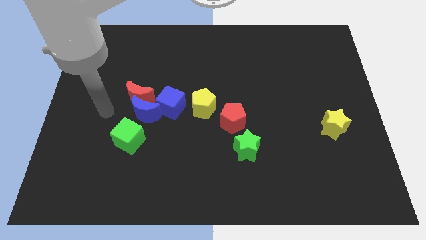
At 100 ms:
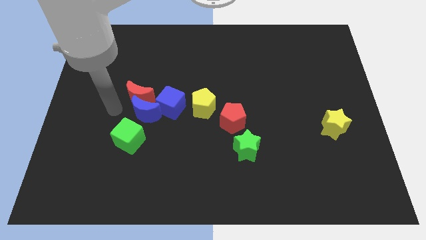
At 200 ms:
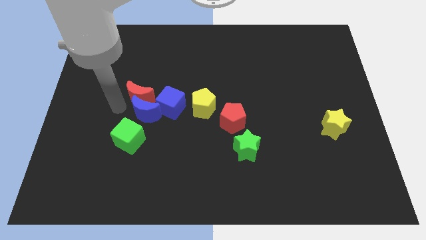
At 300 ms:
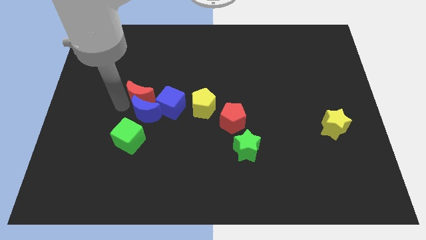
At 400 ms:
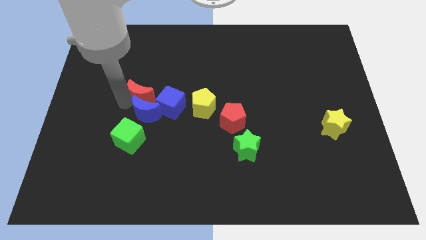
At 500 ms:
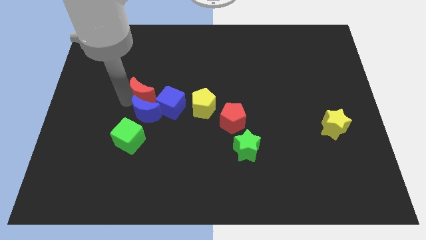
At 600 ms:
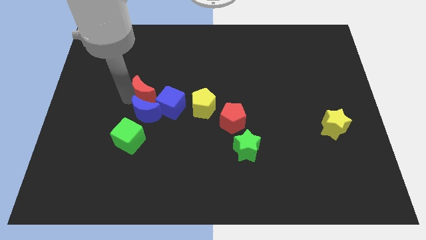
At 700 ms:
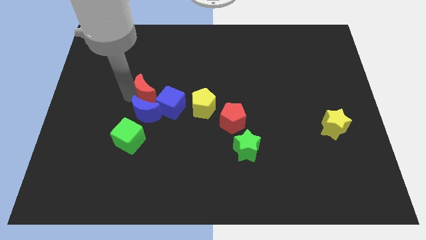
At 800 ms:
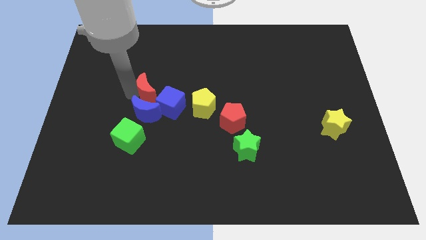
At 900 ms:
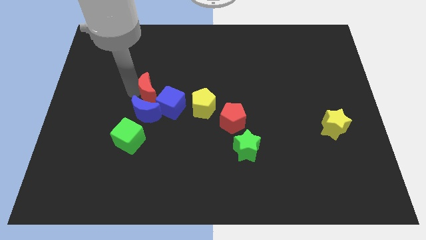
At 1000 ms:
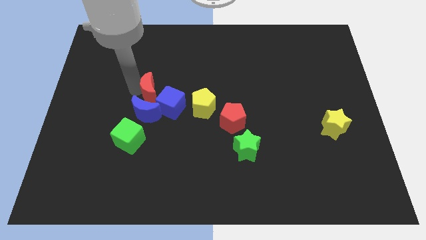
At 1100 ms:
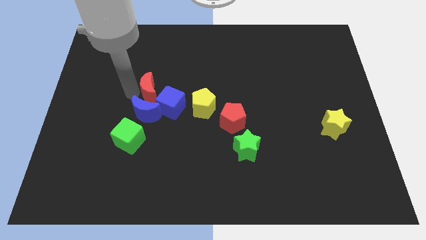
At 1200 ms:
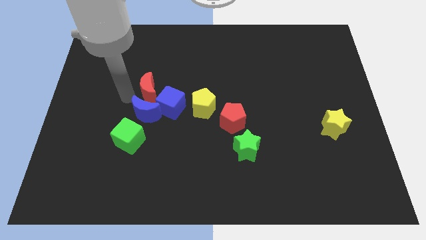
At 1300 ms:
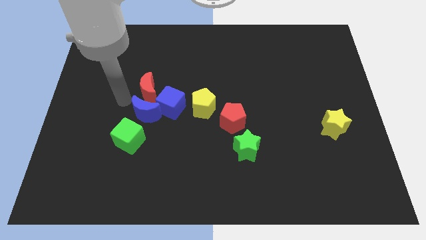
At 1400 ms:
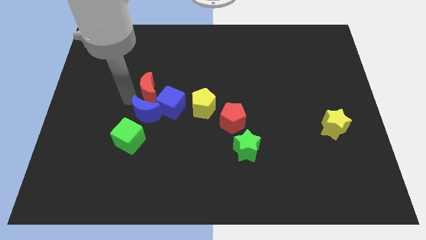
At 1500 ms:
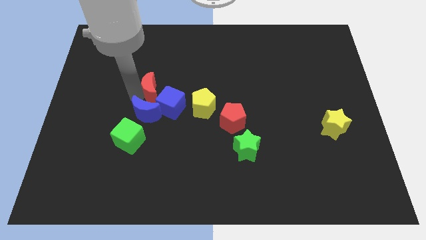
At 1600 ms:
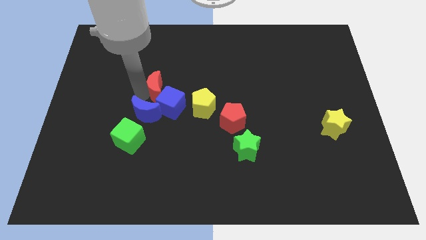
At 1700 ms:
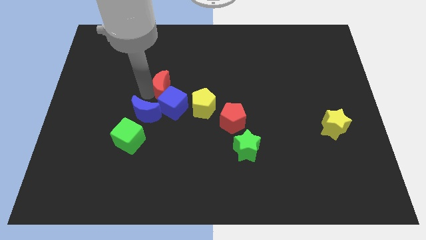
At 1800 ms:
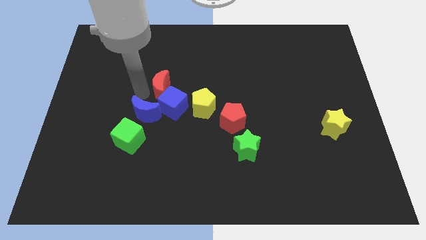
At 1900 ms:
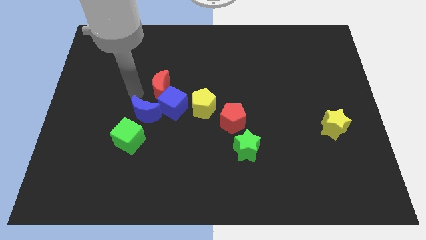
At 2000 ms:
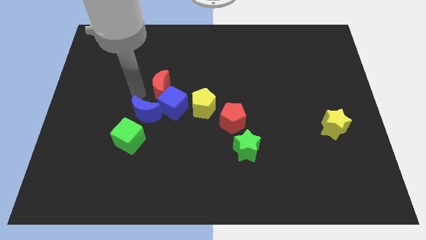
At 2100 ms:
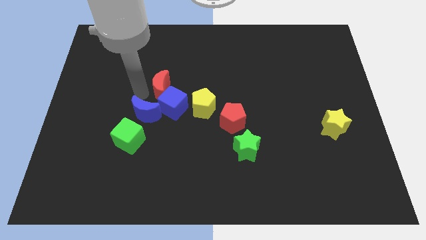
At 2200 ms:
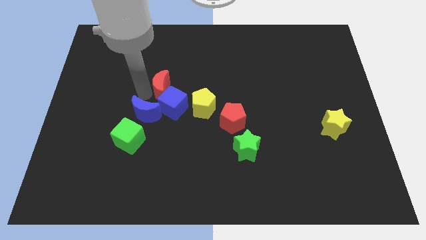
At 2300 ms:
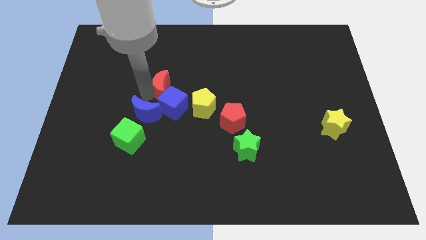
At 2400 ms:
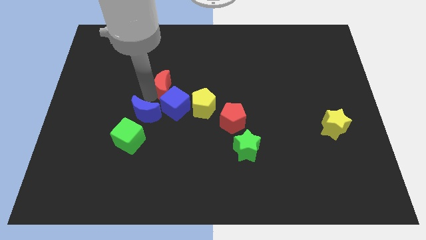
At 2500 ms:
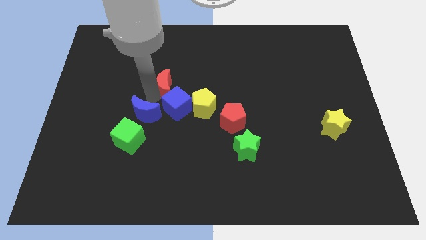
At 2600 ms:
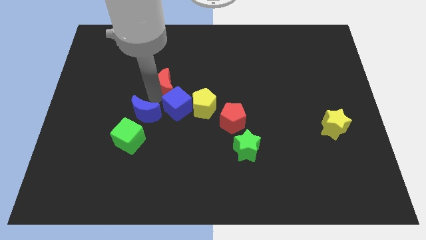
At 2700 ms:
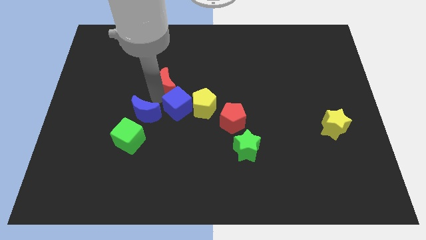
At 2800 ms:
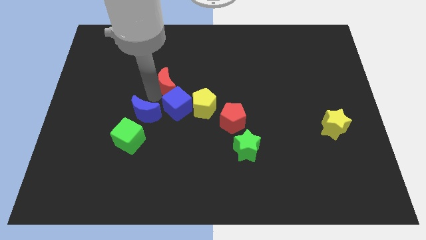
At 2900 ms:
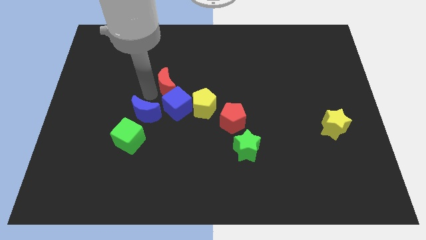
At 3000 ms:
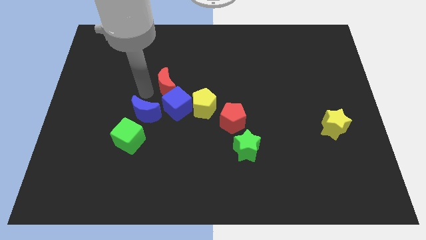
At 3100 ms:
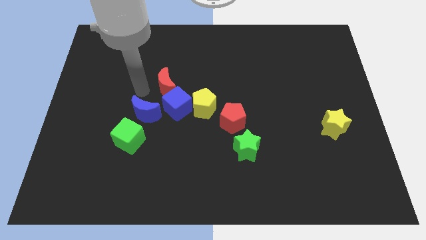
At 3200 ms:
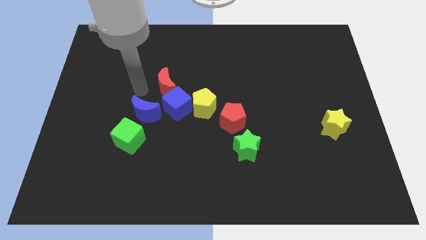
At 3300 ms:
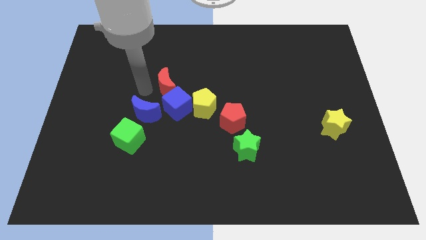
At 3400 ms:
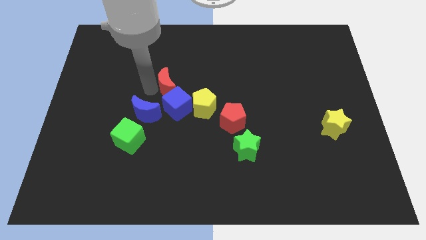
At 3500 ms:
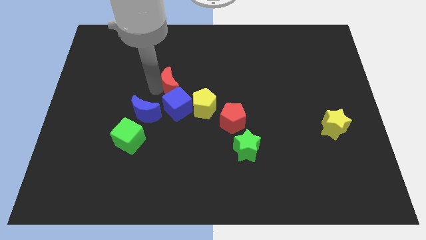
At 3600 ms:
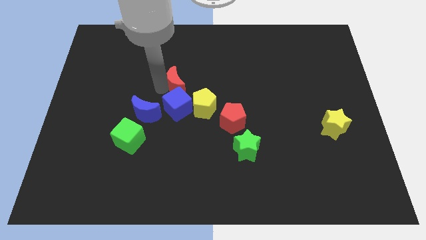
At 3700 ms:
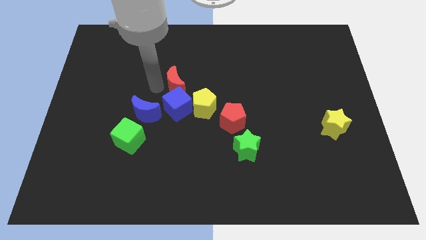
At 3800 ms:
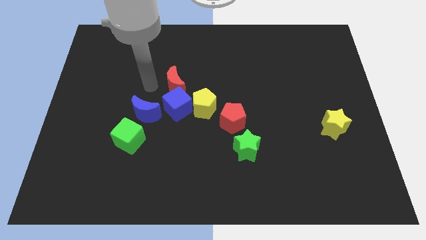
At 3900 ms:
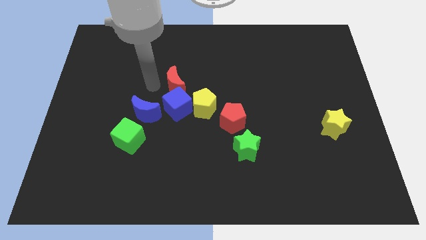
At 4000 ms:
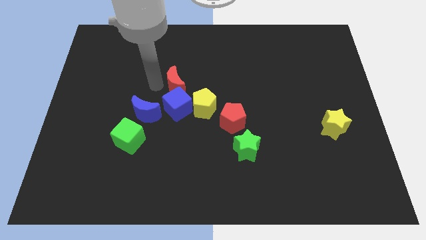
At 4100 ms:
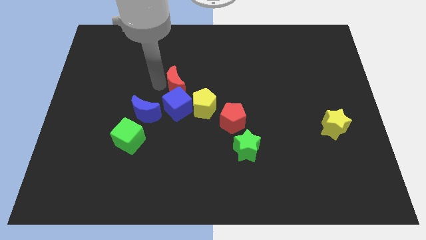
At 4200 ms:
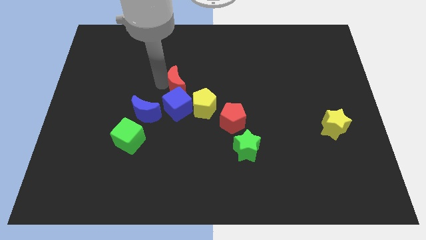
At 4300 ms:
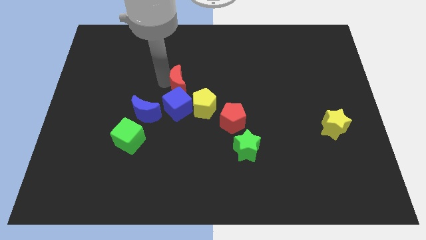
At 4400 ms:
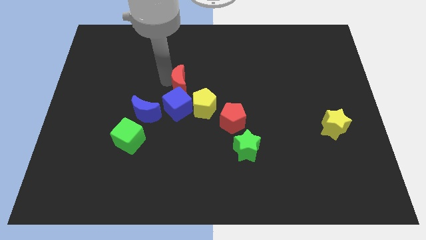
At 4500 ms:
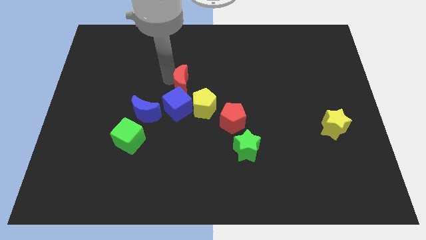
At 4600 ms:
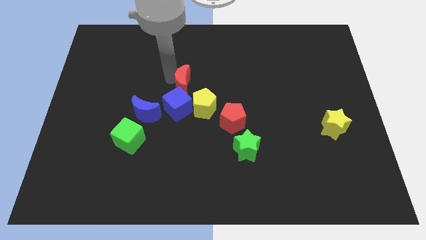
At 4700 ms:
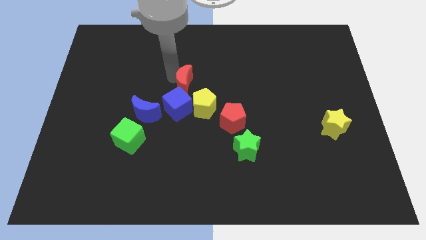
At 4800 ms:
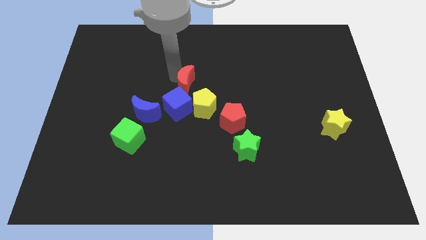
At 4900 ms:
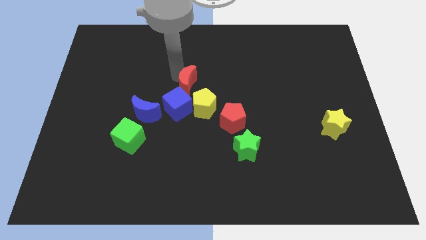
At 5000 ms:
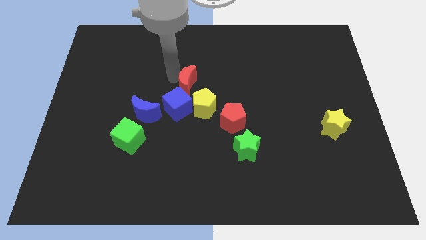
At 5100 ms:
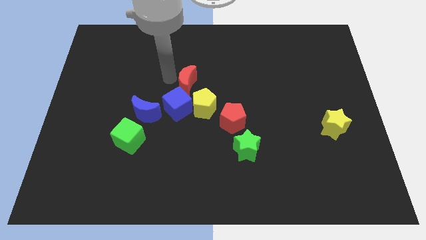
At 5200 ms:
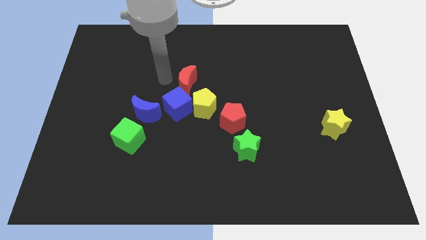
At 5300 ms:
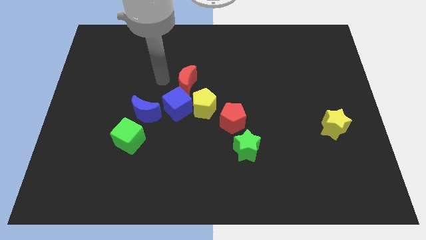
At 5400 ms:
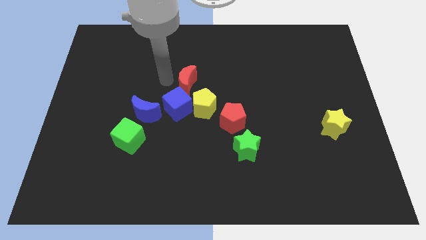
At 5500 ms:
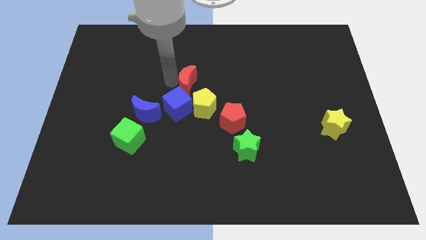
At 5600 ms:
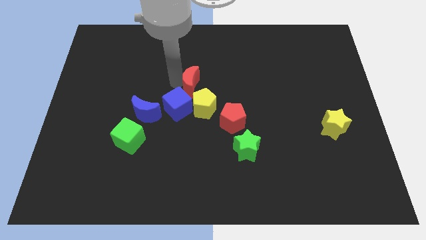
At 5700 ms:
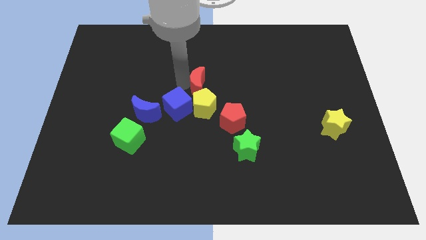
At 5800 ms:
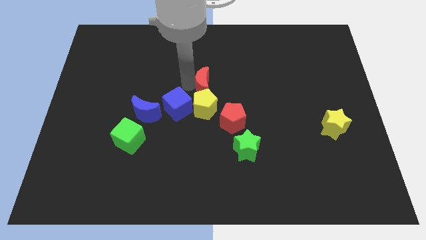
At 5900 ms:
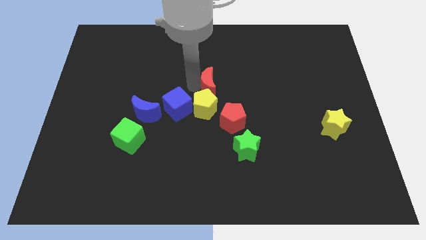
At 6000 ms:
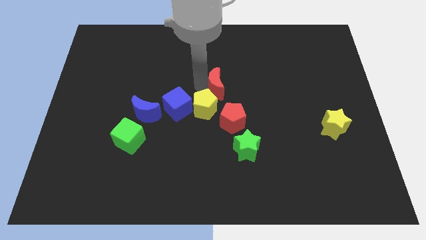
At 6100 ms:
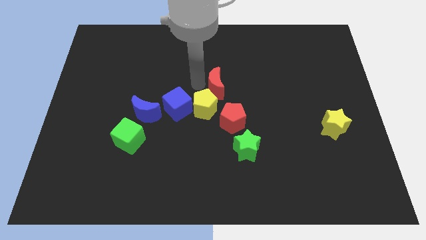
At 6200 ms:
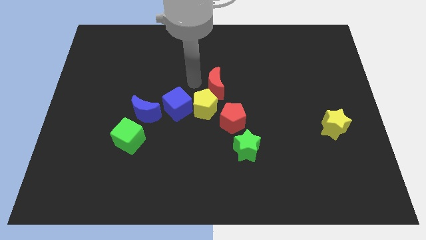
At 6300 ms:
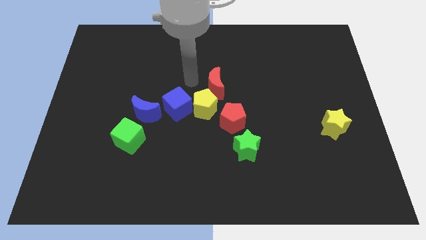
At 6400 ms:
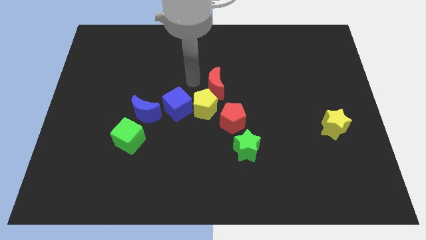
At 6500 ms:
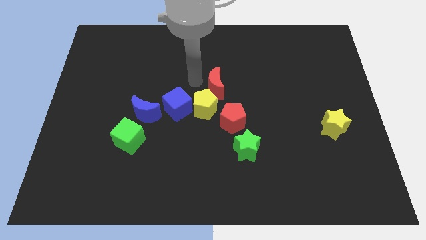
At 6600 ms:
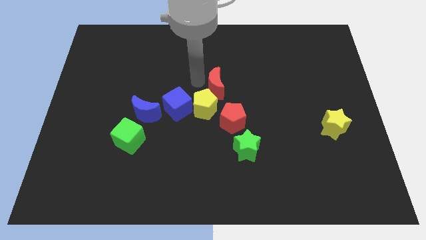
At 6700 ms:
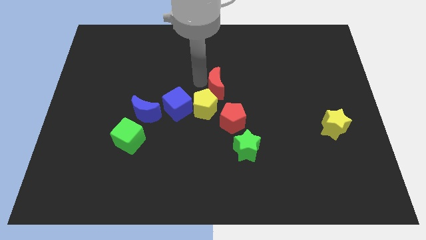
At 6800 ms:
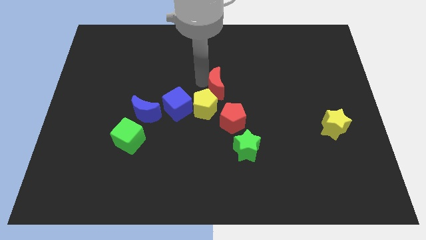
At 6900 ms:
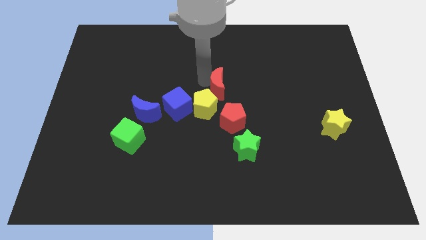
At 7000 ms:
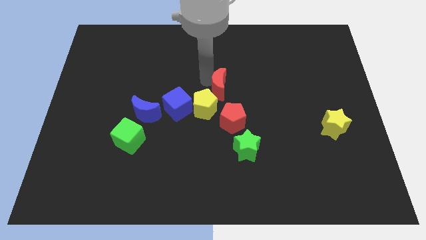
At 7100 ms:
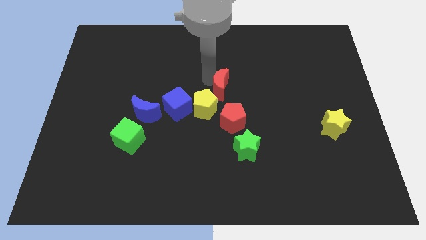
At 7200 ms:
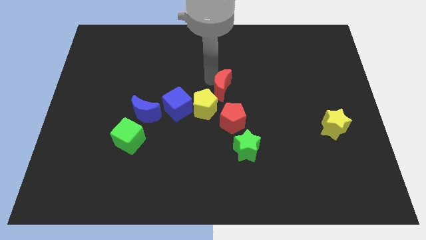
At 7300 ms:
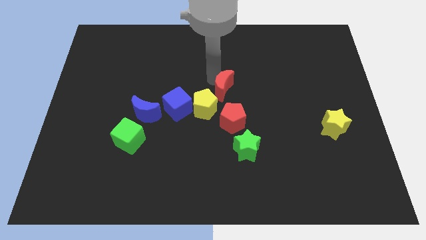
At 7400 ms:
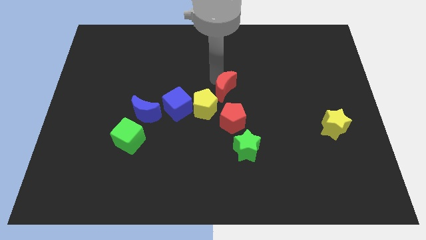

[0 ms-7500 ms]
slide the red moon right

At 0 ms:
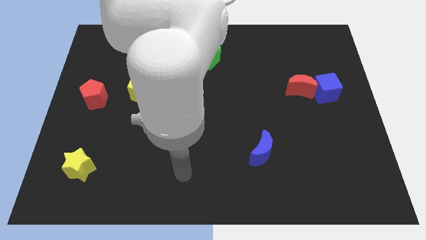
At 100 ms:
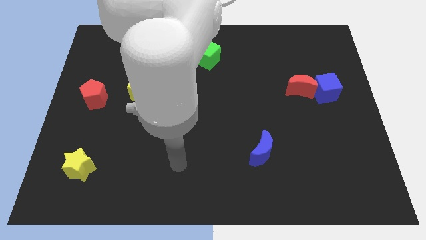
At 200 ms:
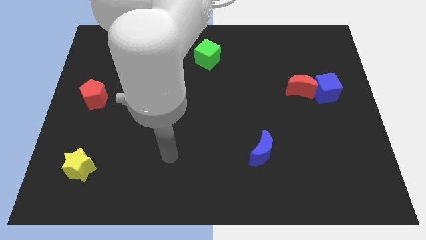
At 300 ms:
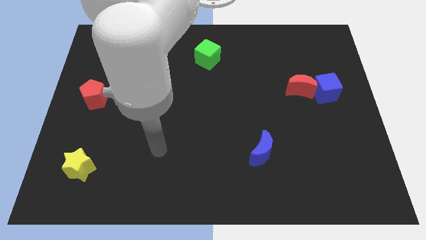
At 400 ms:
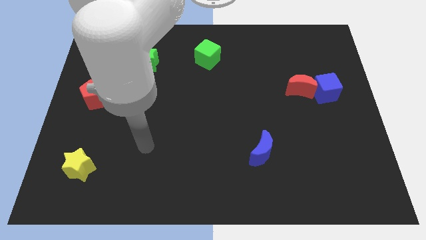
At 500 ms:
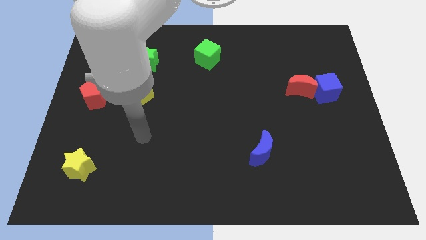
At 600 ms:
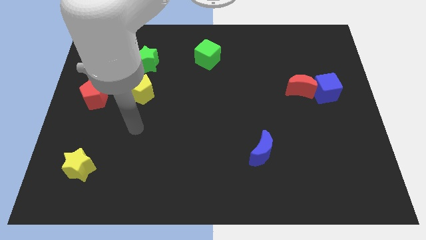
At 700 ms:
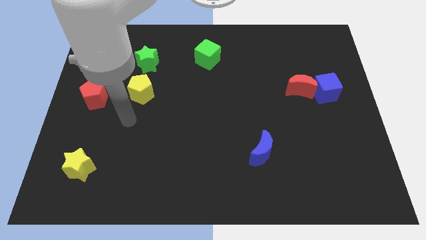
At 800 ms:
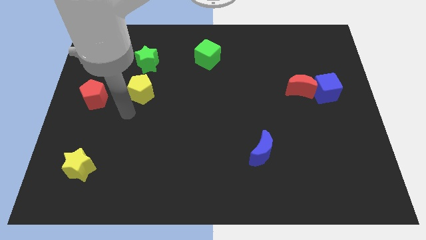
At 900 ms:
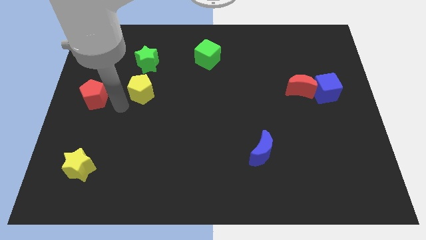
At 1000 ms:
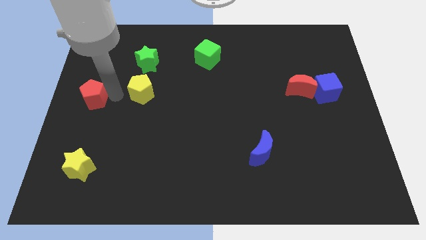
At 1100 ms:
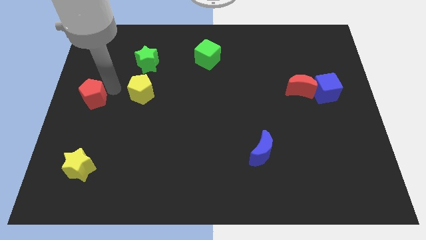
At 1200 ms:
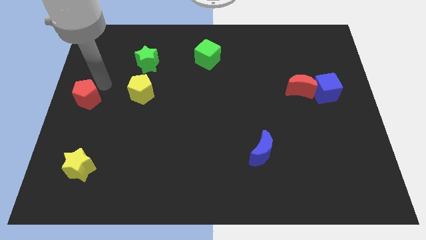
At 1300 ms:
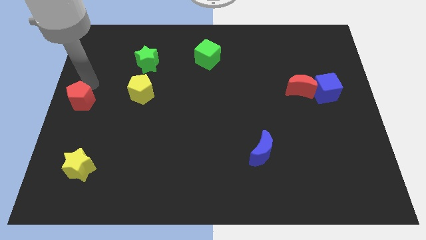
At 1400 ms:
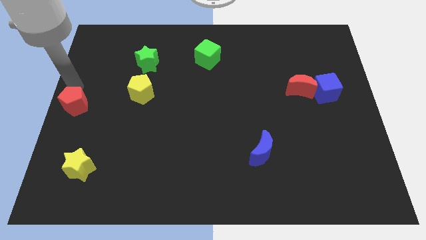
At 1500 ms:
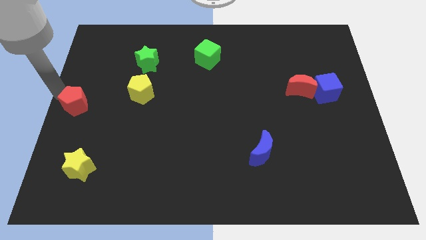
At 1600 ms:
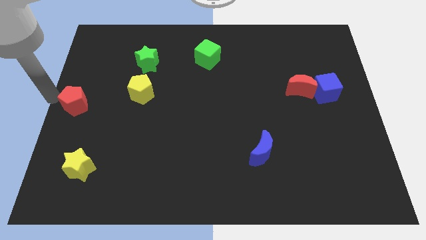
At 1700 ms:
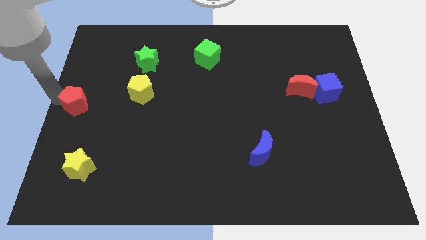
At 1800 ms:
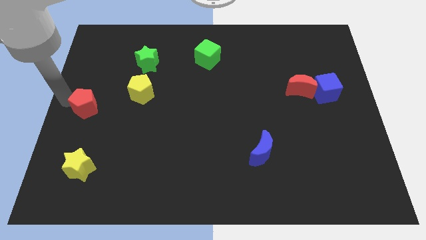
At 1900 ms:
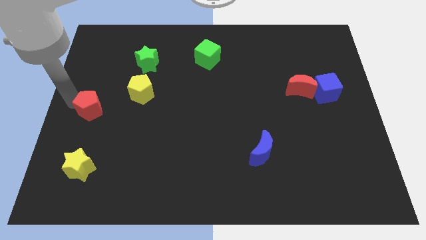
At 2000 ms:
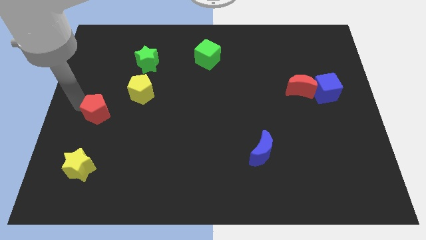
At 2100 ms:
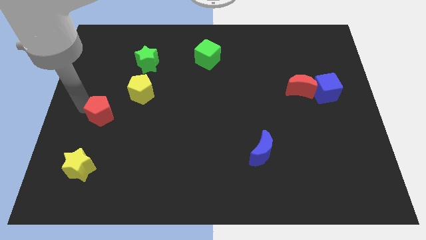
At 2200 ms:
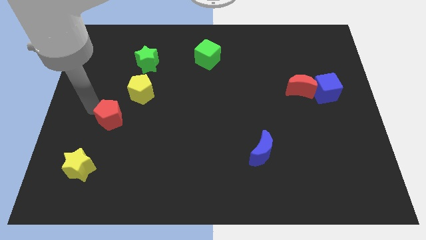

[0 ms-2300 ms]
slide the red pentagon a little down and right diagonally
